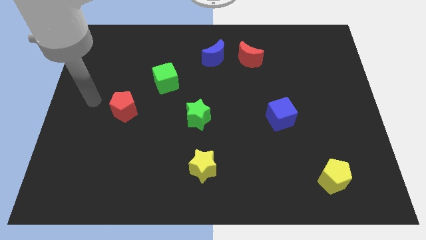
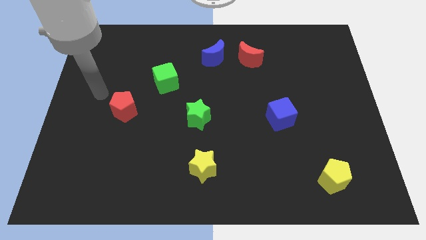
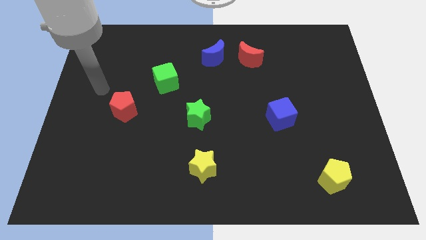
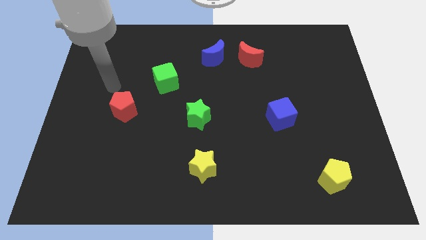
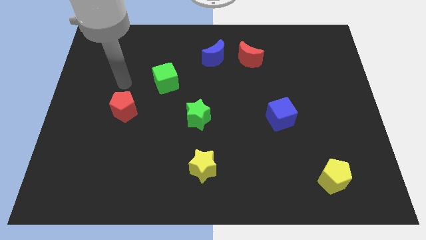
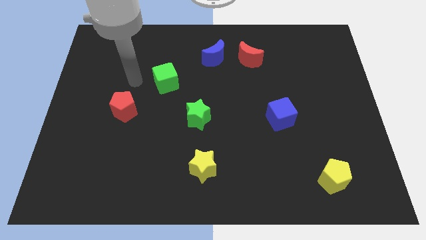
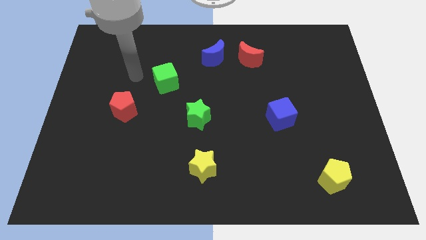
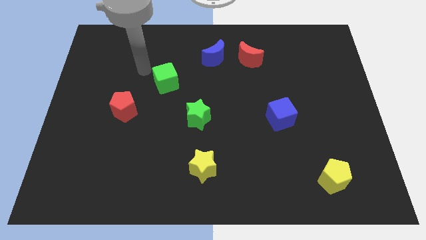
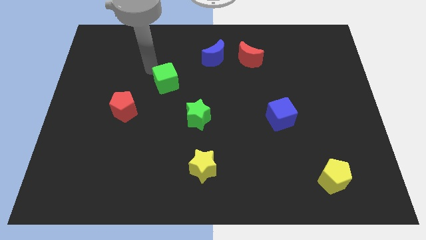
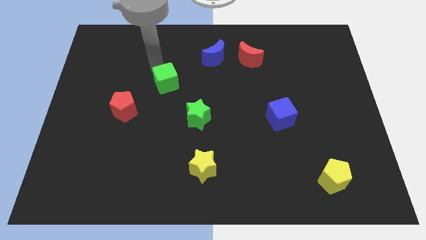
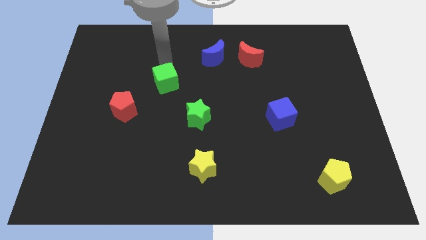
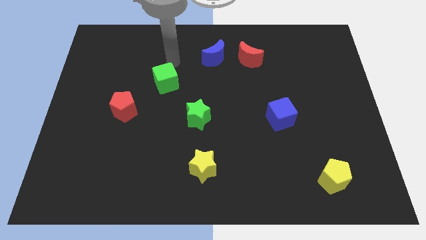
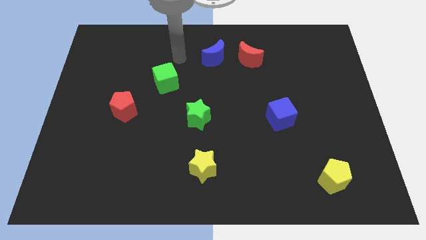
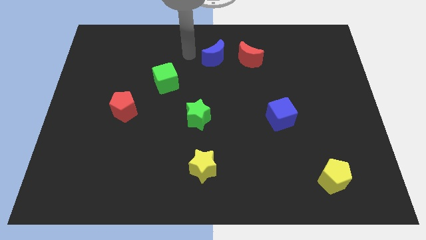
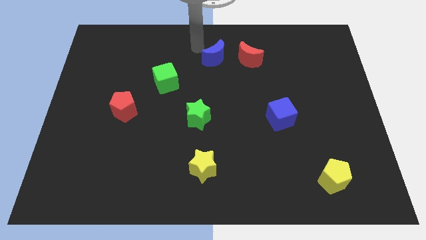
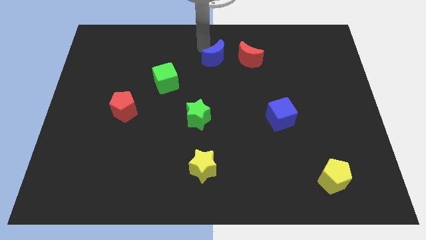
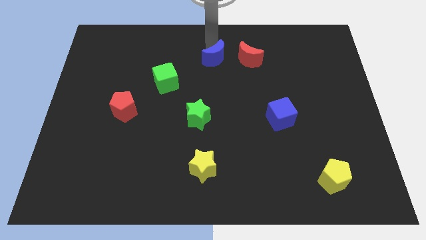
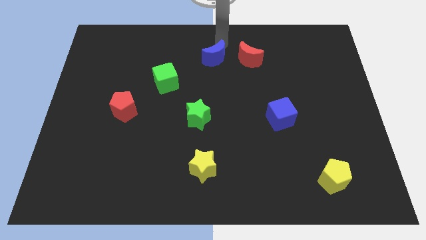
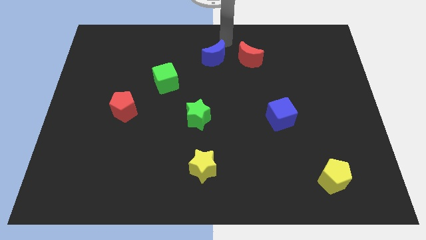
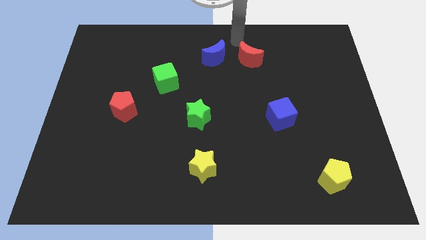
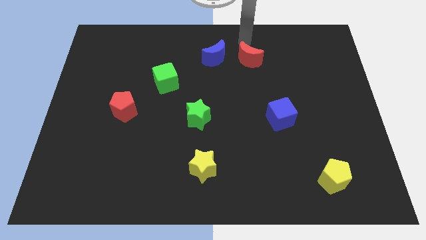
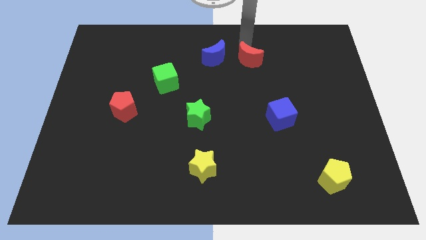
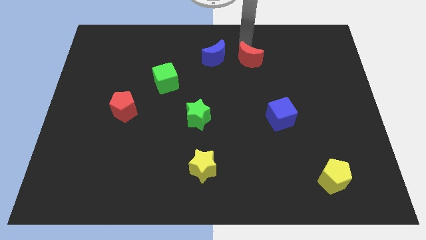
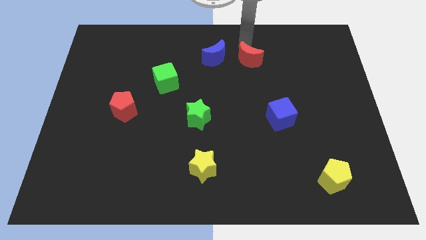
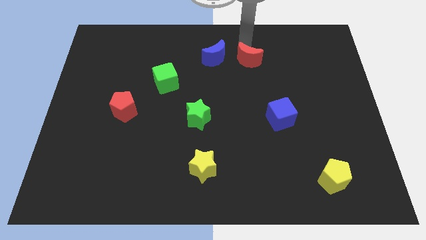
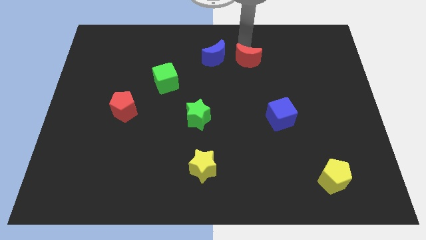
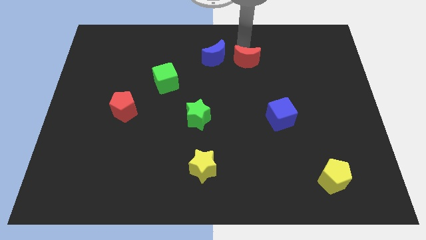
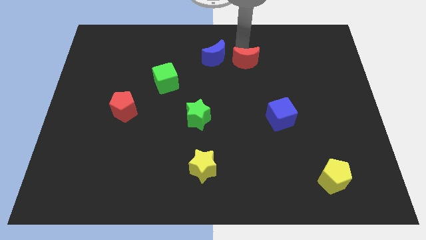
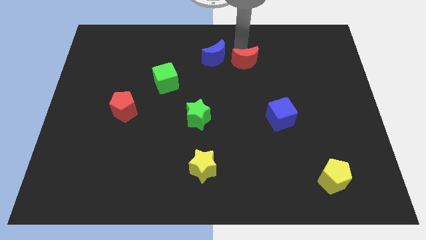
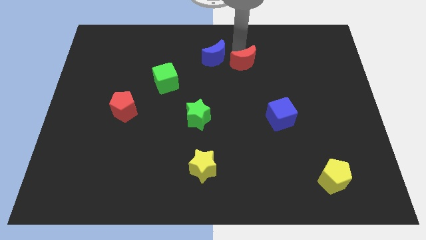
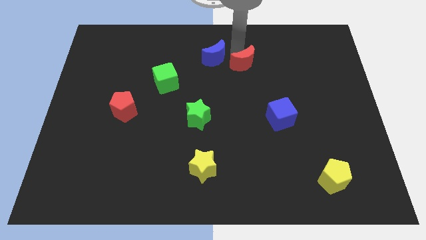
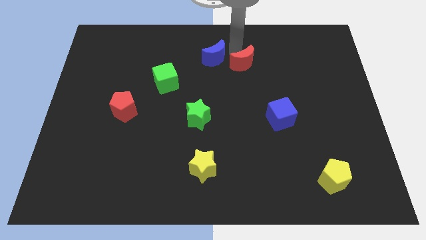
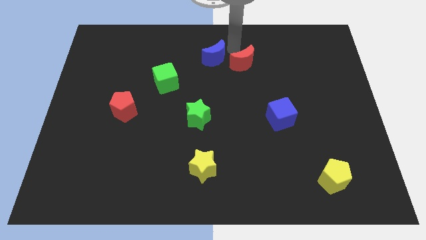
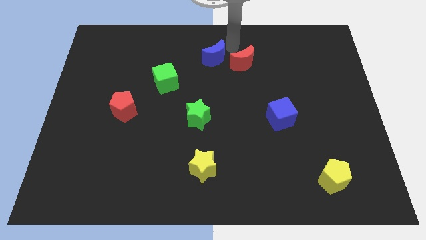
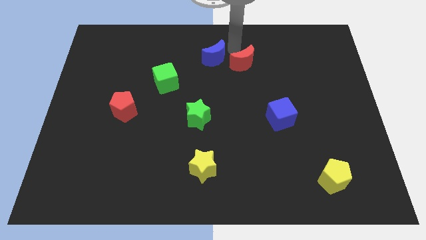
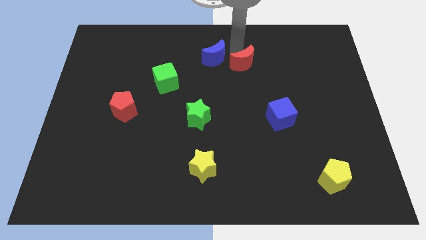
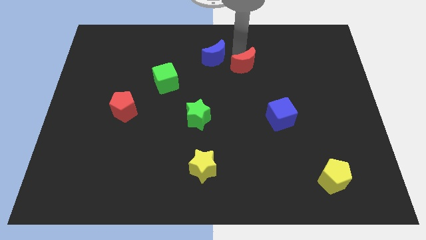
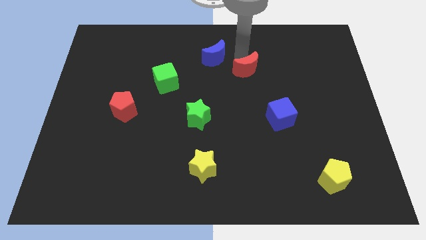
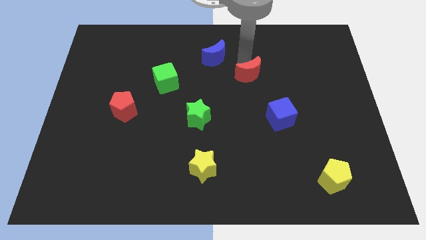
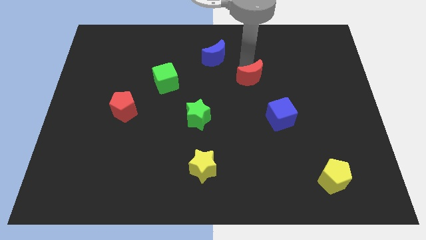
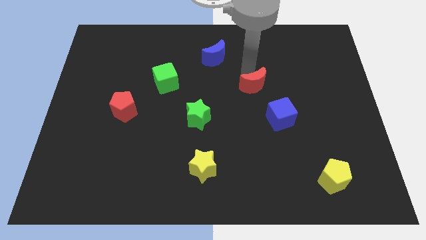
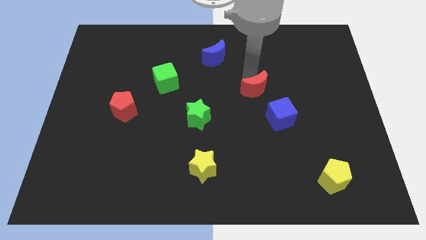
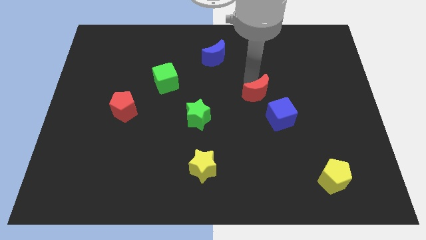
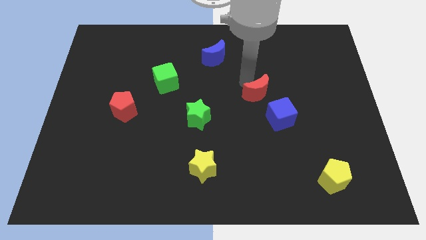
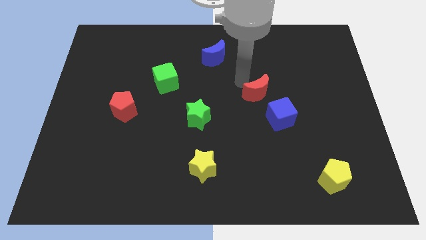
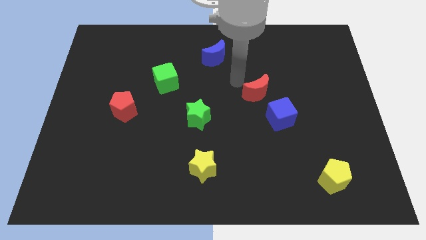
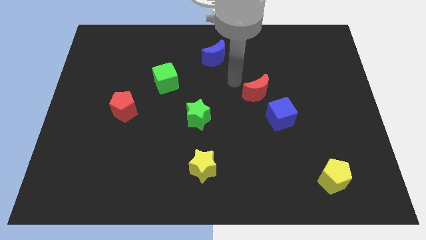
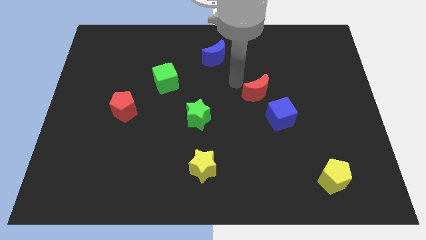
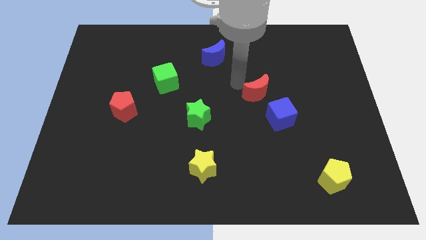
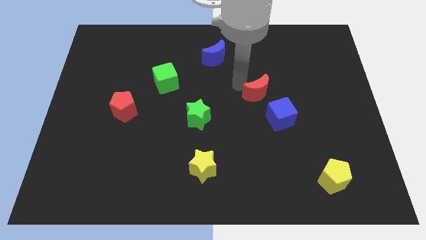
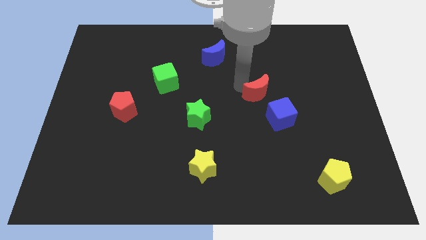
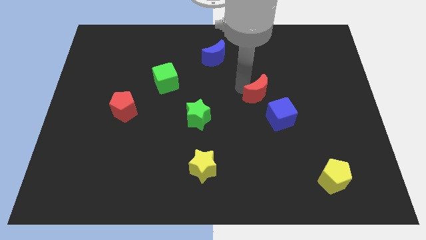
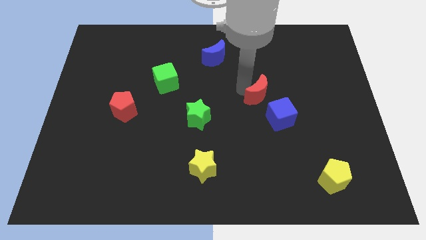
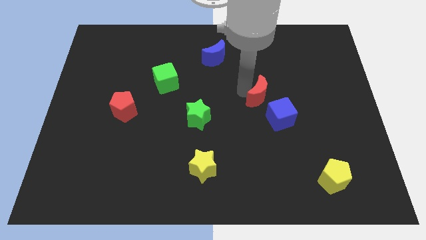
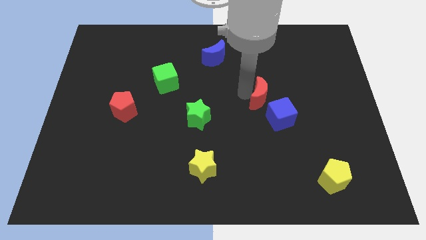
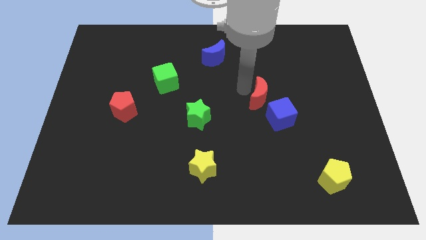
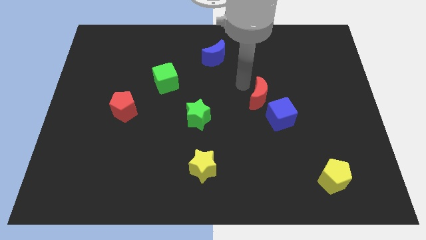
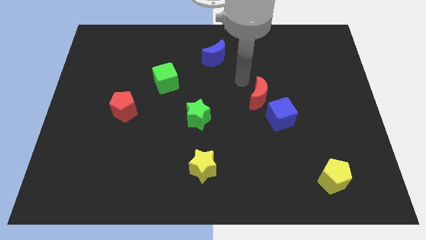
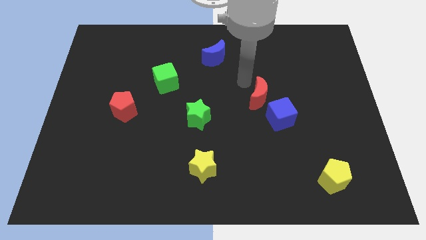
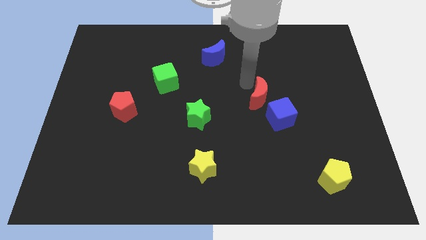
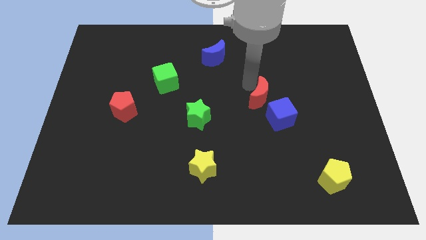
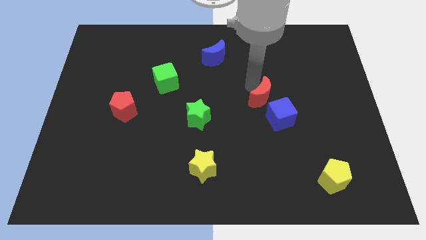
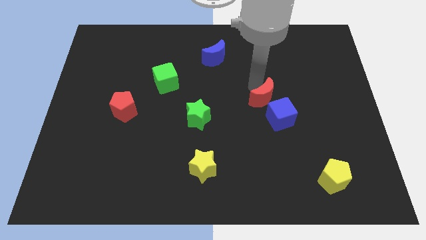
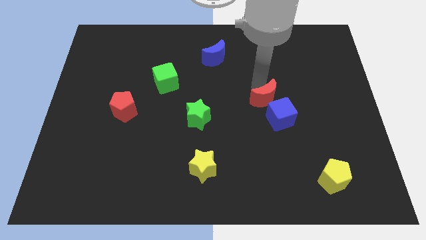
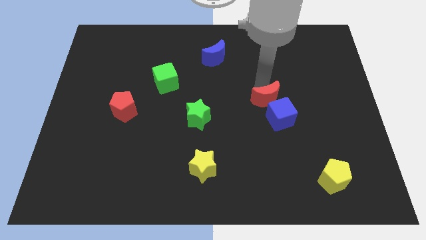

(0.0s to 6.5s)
slide the red moon next to the blue cube
